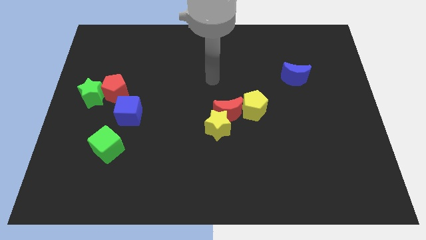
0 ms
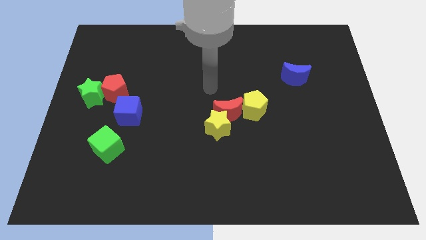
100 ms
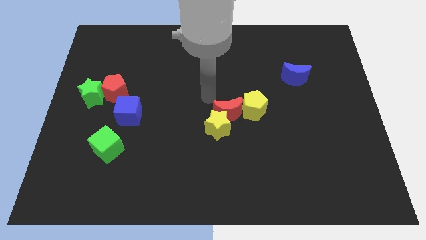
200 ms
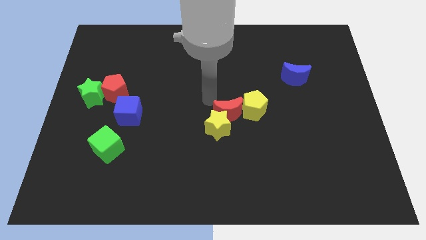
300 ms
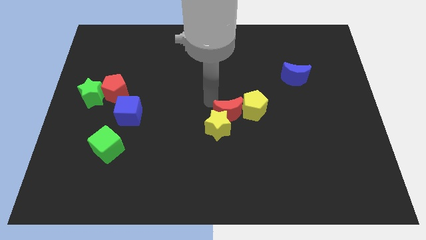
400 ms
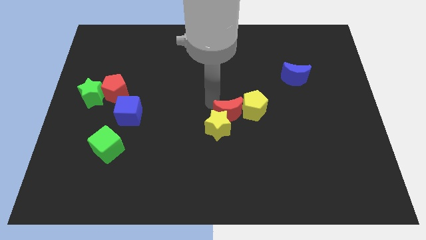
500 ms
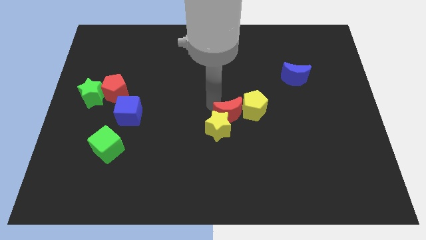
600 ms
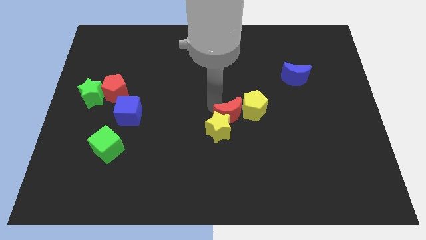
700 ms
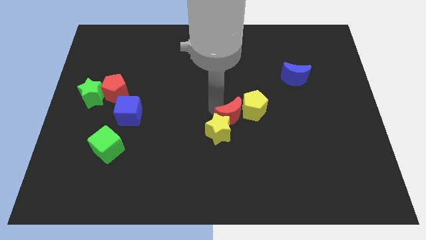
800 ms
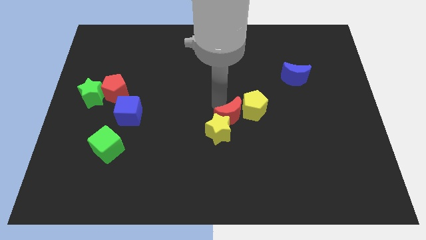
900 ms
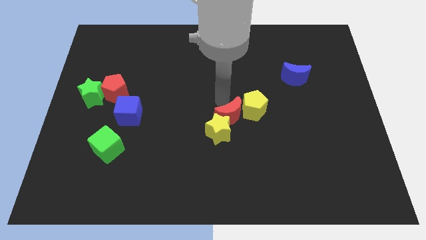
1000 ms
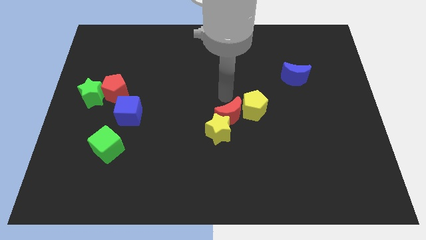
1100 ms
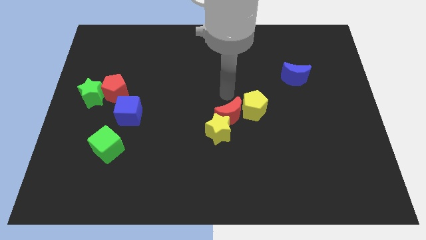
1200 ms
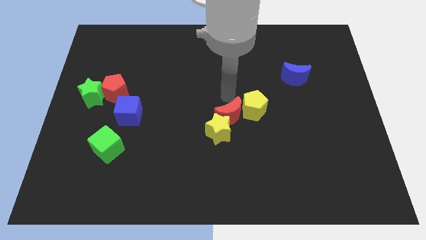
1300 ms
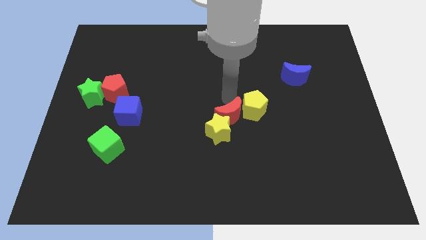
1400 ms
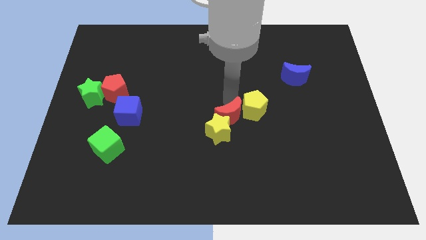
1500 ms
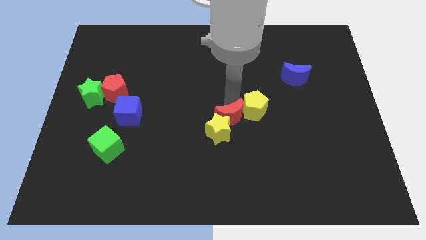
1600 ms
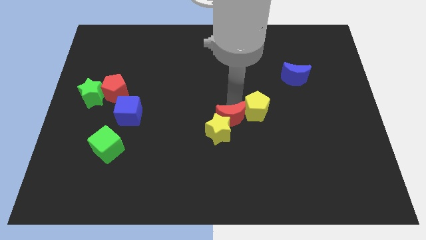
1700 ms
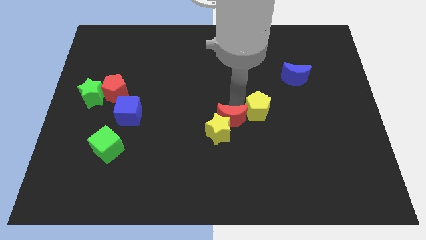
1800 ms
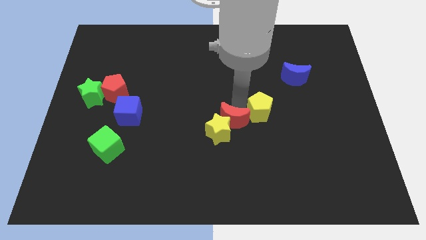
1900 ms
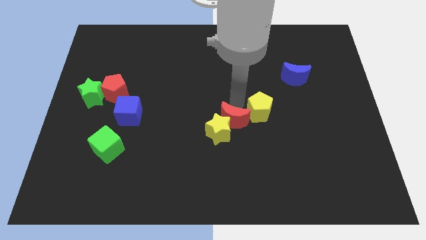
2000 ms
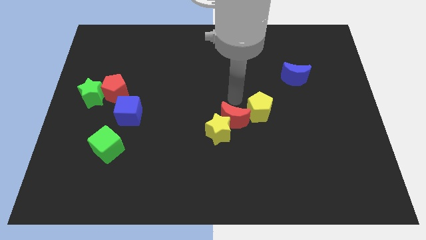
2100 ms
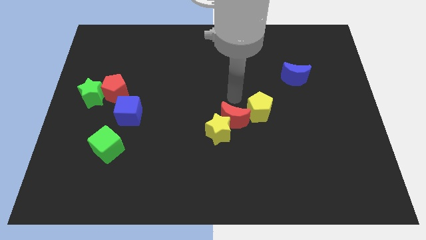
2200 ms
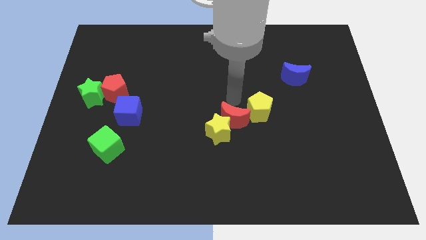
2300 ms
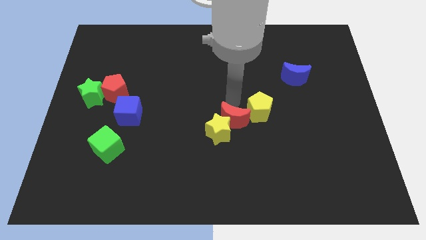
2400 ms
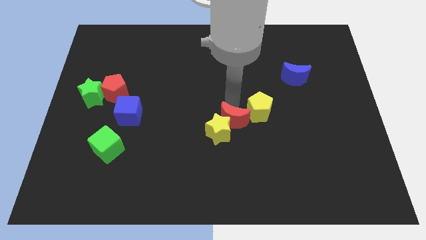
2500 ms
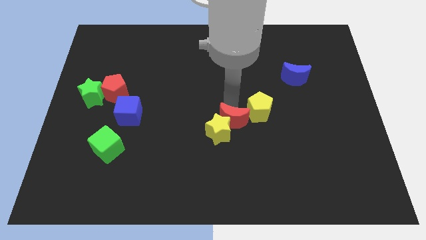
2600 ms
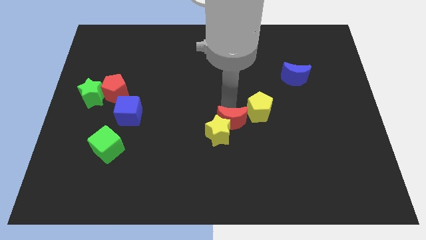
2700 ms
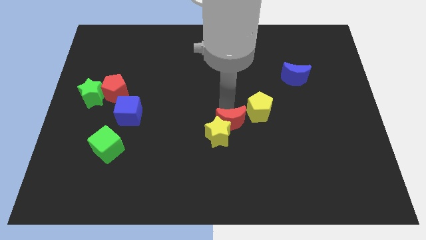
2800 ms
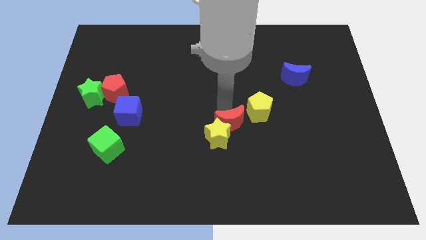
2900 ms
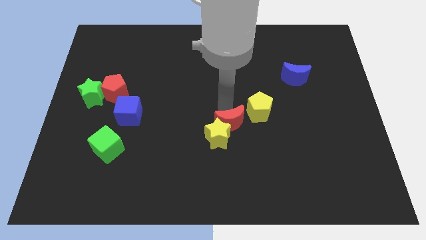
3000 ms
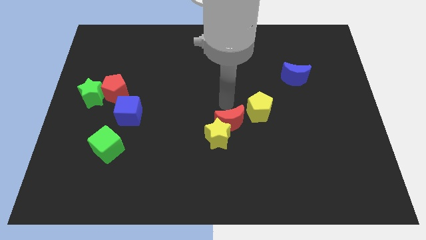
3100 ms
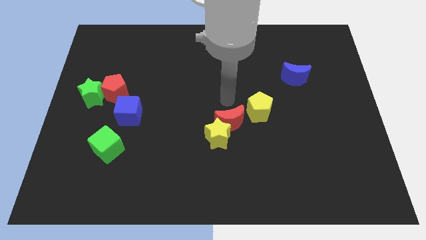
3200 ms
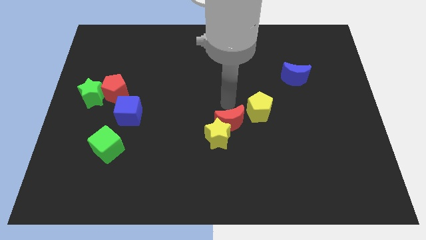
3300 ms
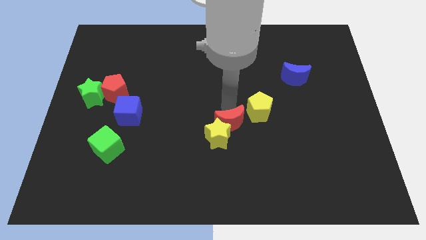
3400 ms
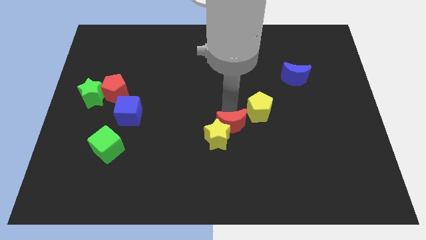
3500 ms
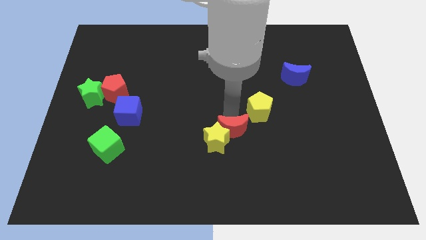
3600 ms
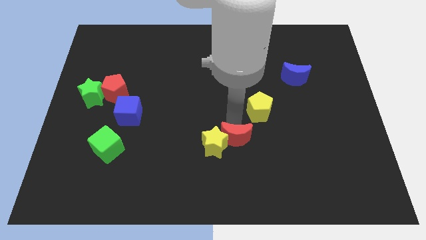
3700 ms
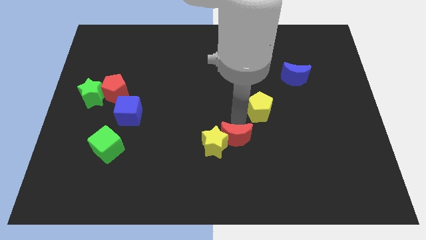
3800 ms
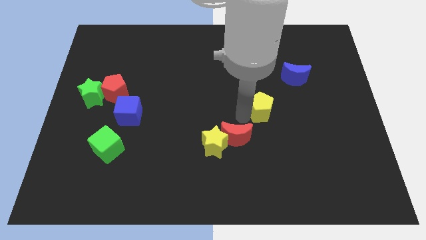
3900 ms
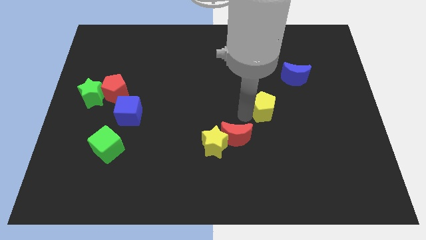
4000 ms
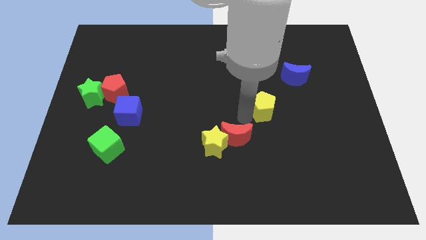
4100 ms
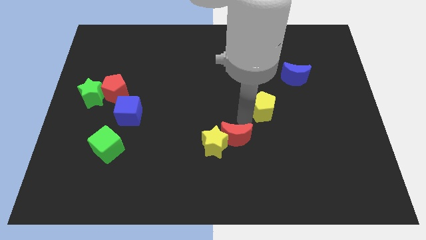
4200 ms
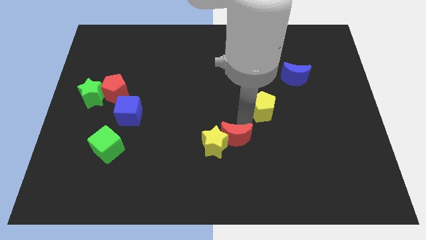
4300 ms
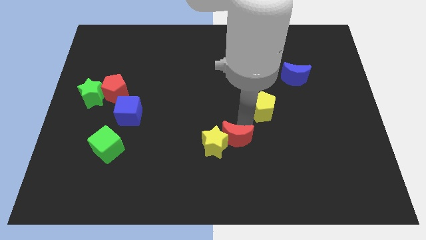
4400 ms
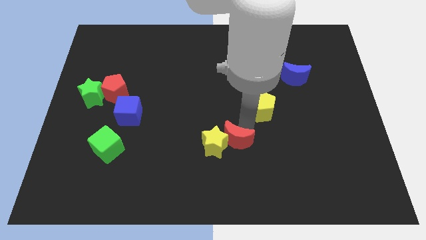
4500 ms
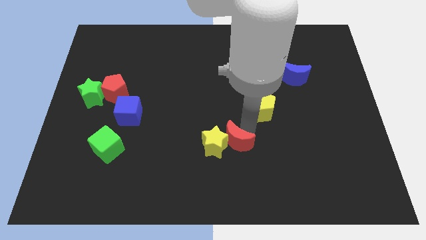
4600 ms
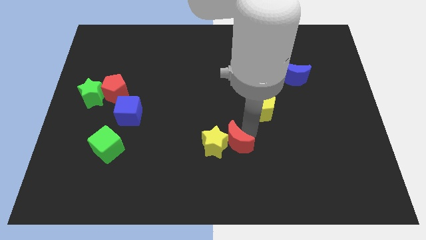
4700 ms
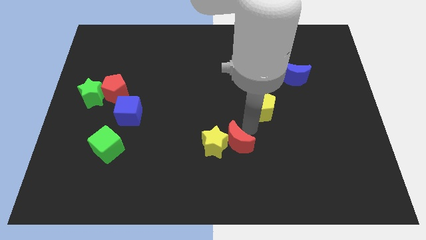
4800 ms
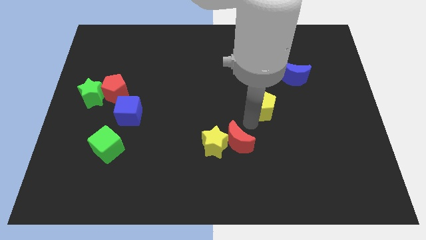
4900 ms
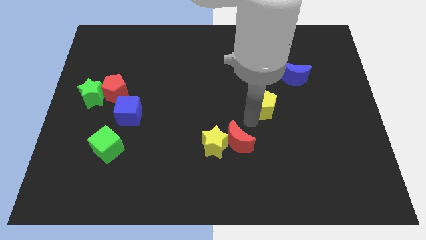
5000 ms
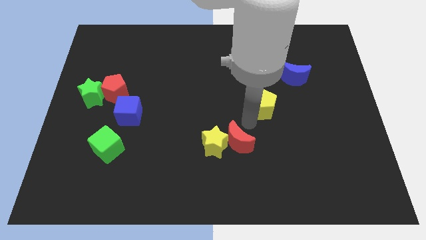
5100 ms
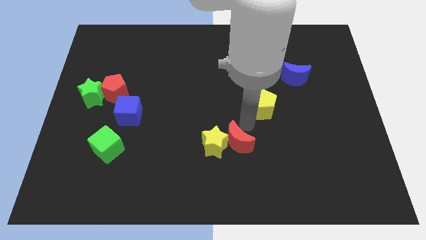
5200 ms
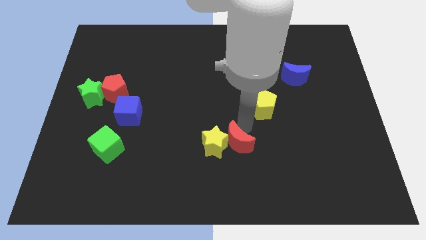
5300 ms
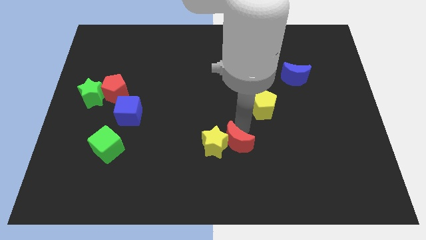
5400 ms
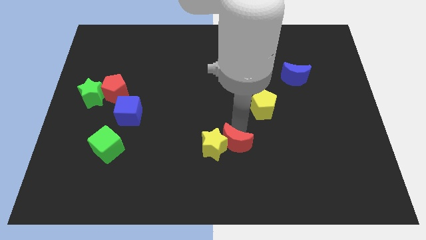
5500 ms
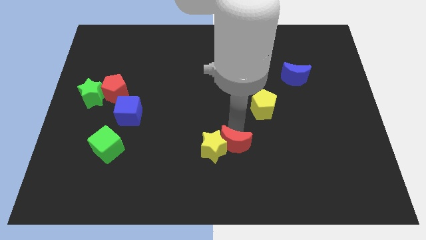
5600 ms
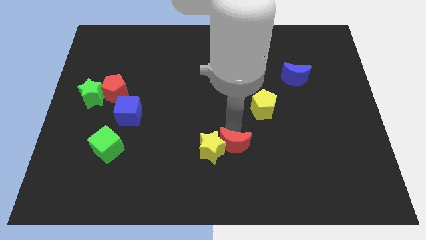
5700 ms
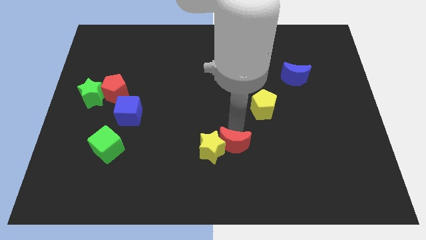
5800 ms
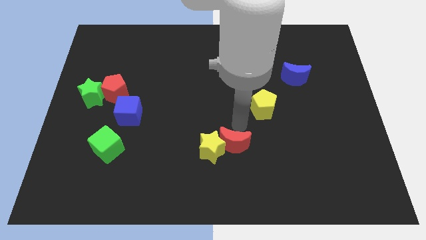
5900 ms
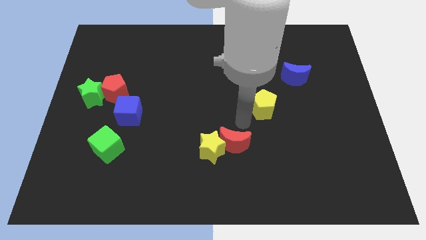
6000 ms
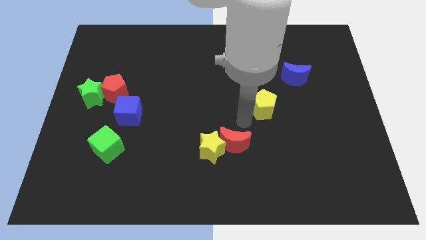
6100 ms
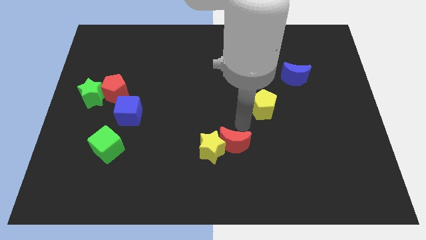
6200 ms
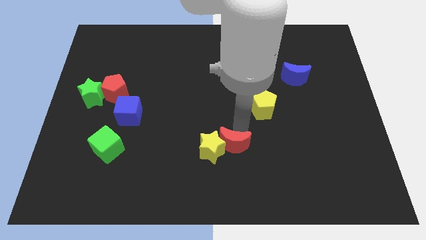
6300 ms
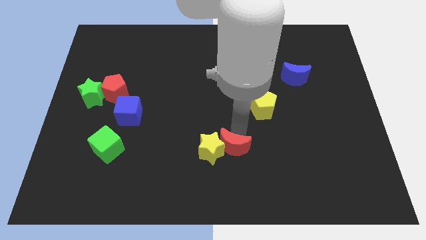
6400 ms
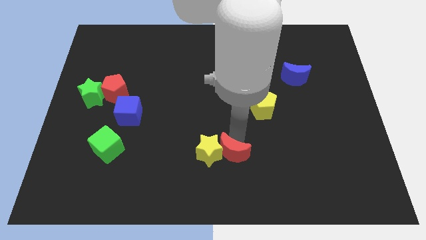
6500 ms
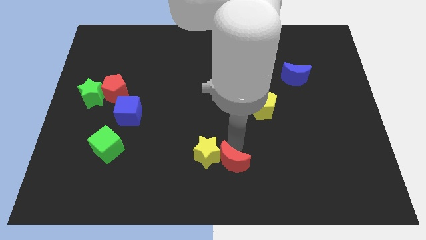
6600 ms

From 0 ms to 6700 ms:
slide the red moon to the bottom side
